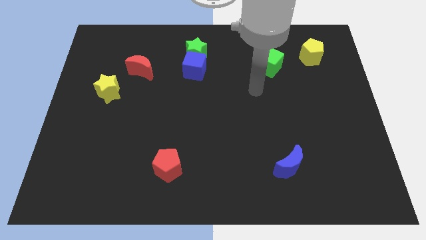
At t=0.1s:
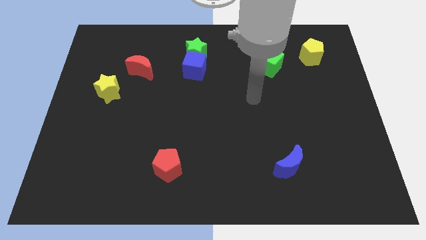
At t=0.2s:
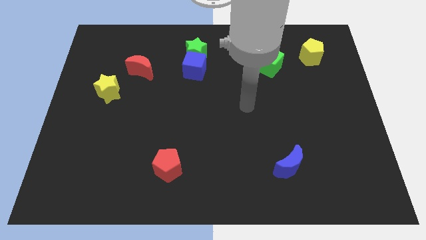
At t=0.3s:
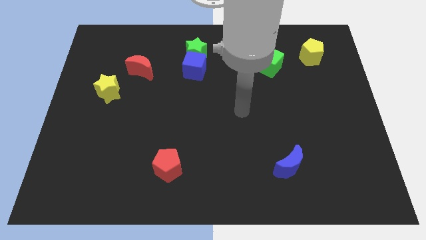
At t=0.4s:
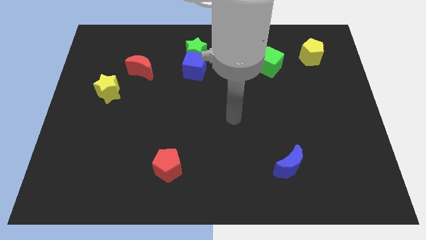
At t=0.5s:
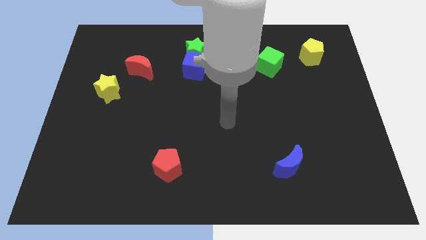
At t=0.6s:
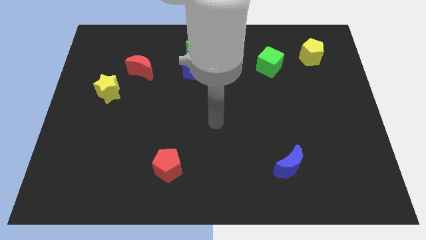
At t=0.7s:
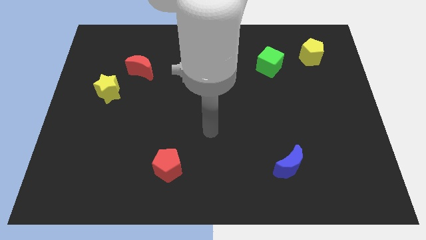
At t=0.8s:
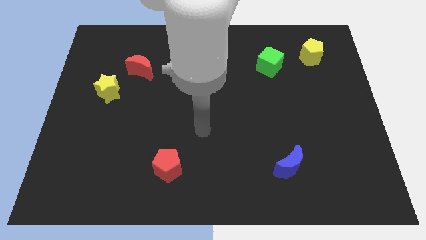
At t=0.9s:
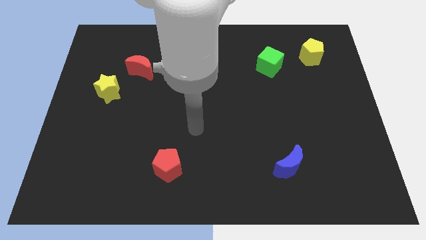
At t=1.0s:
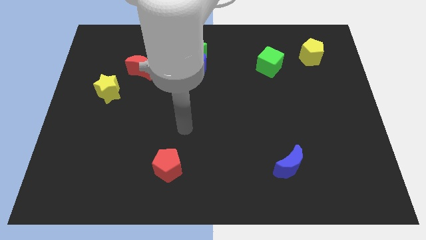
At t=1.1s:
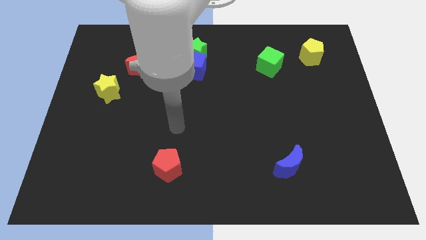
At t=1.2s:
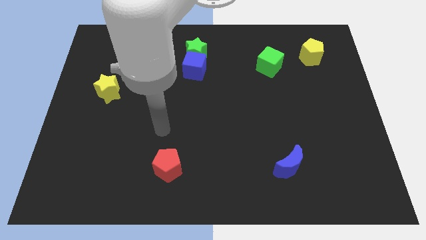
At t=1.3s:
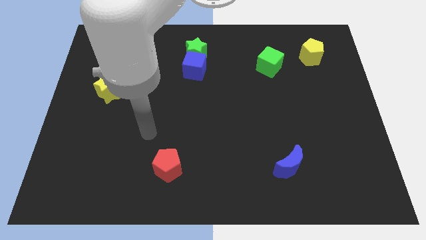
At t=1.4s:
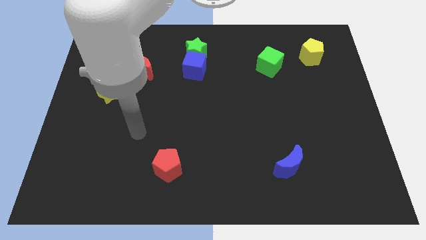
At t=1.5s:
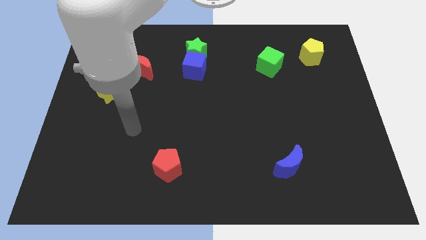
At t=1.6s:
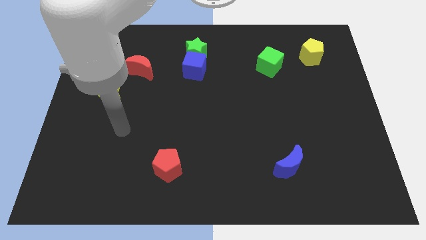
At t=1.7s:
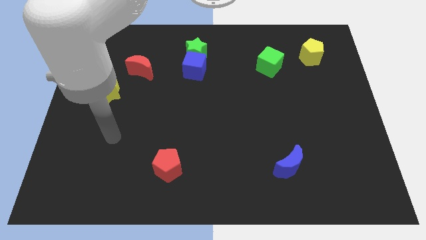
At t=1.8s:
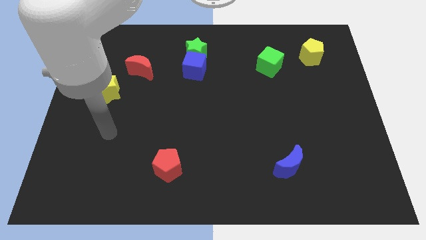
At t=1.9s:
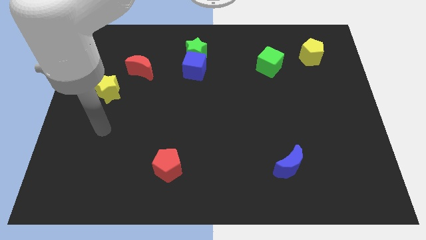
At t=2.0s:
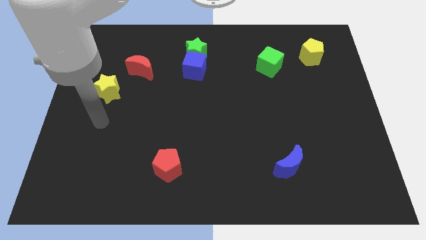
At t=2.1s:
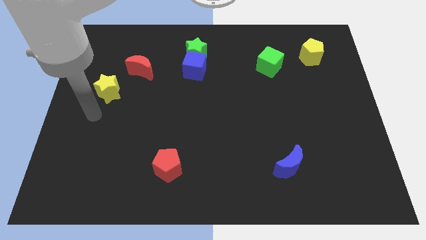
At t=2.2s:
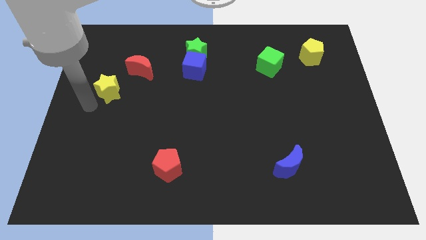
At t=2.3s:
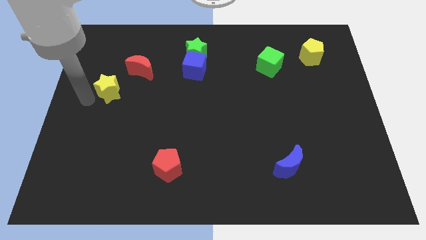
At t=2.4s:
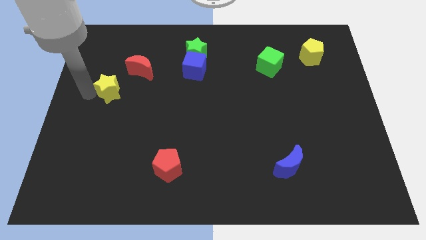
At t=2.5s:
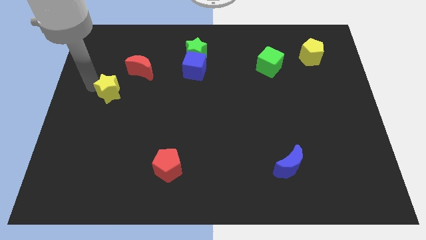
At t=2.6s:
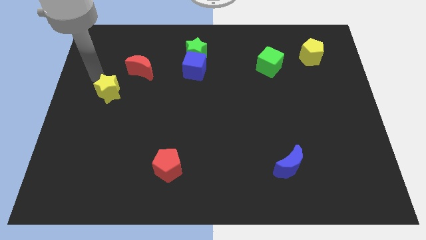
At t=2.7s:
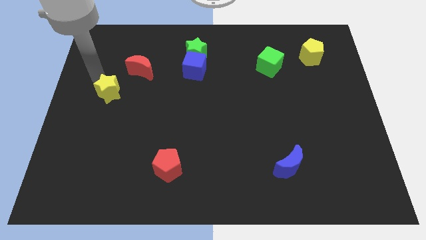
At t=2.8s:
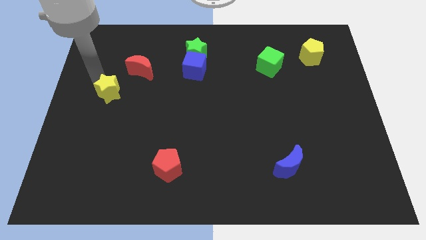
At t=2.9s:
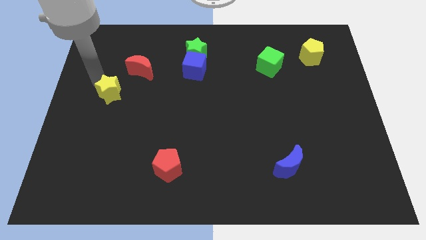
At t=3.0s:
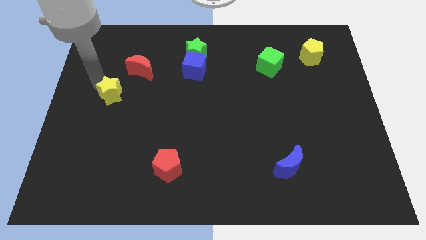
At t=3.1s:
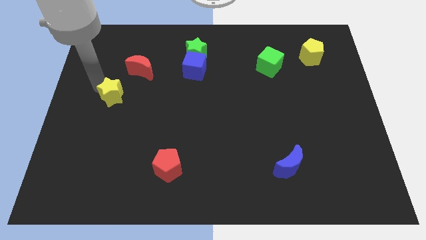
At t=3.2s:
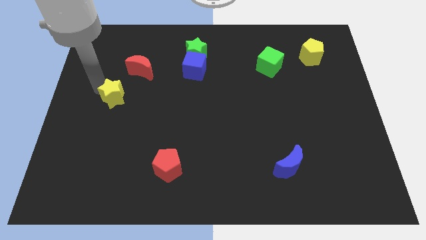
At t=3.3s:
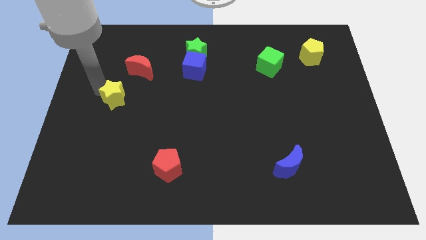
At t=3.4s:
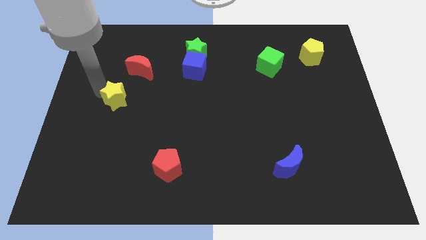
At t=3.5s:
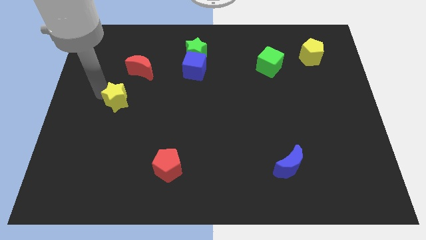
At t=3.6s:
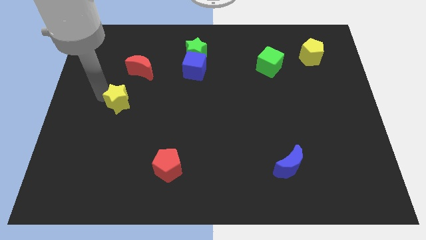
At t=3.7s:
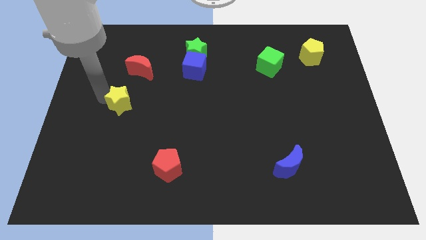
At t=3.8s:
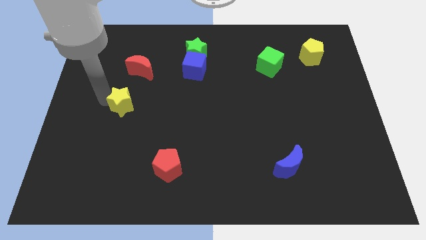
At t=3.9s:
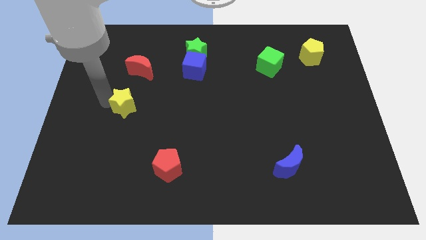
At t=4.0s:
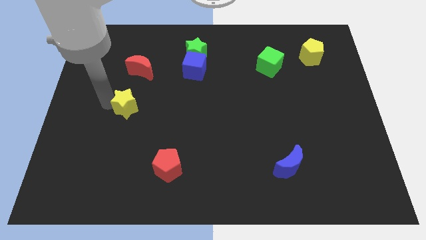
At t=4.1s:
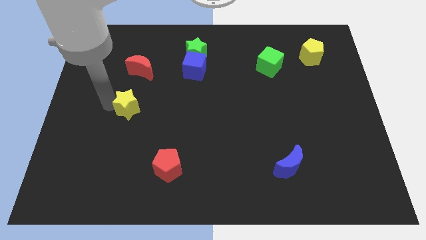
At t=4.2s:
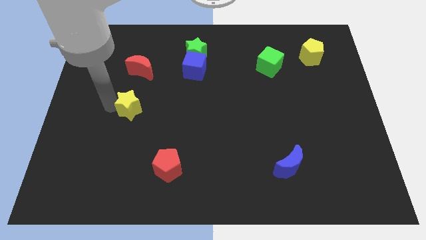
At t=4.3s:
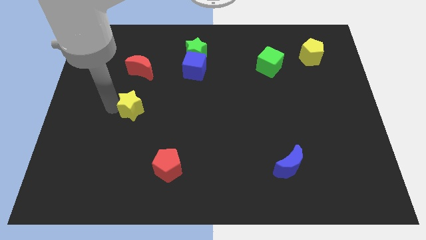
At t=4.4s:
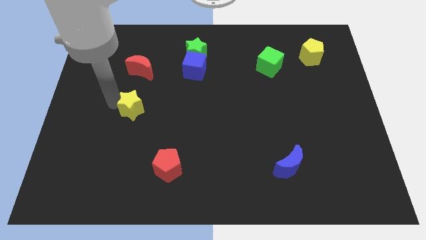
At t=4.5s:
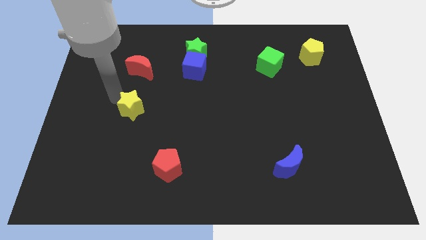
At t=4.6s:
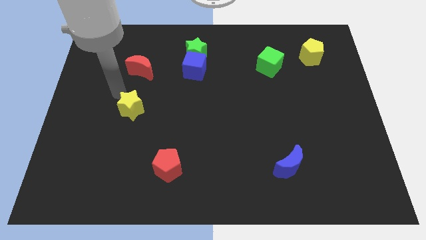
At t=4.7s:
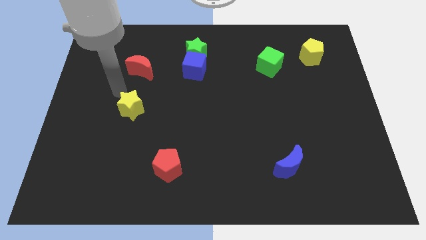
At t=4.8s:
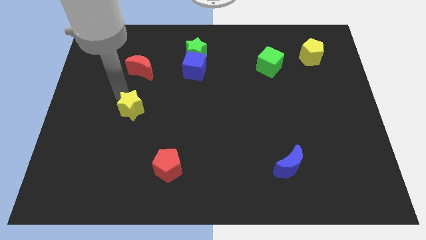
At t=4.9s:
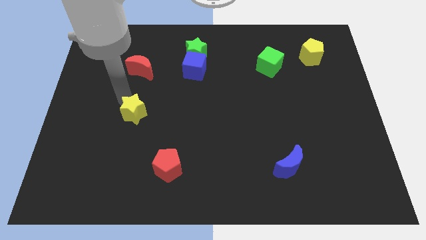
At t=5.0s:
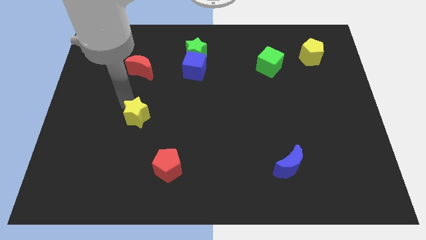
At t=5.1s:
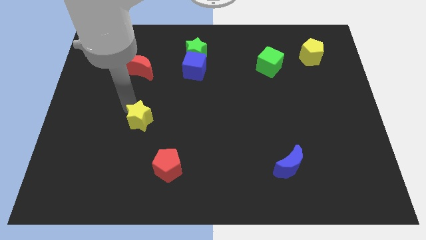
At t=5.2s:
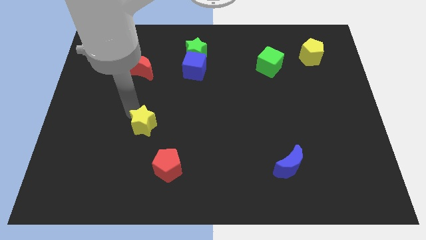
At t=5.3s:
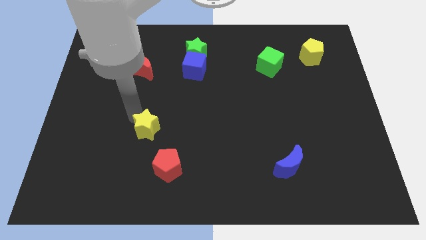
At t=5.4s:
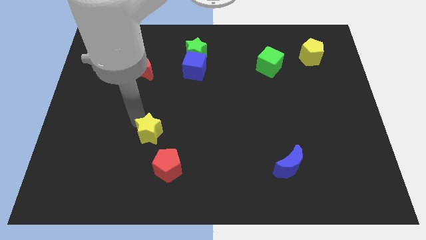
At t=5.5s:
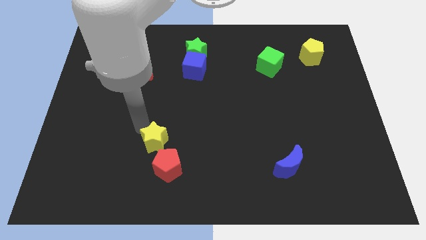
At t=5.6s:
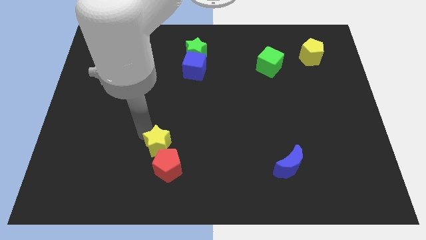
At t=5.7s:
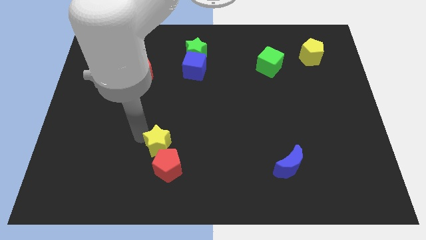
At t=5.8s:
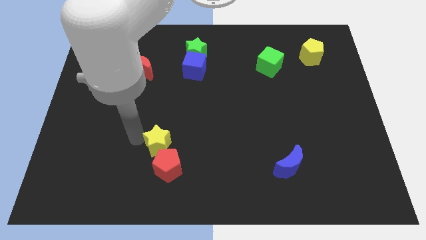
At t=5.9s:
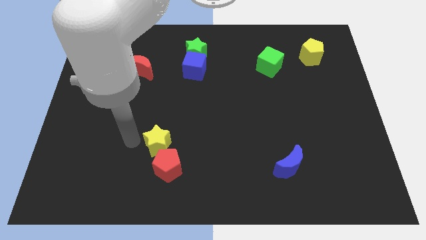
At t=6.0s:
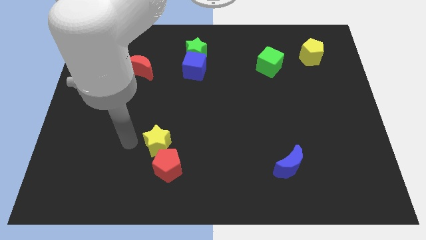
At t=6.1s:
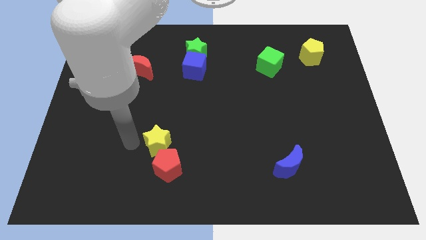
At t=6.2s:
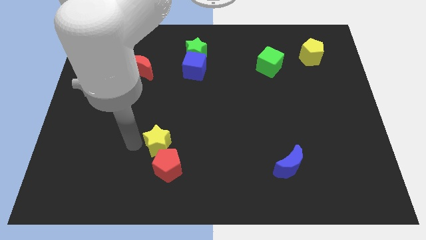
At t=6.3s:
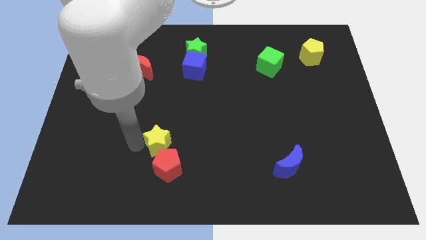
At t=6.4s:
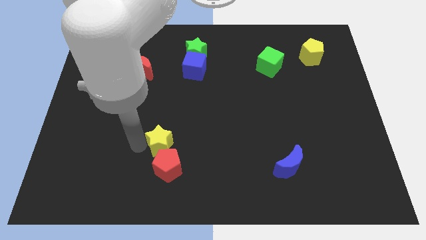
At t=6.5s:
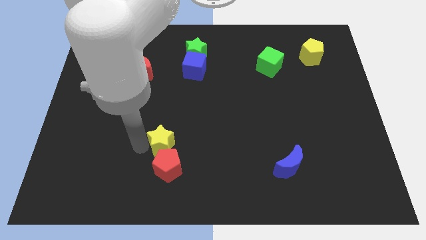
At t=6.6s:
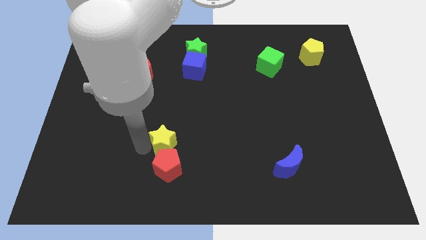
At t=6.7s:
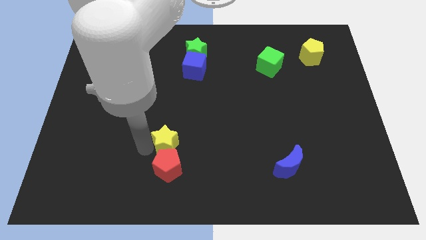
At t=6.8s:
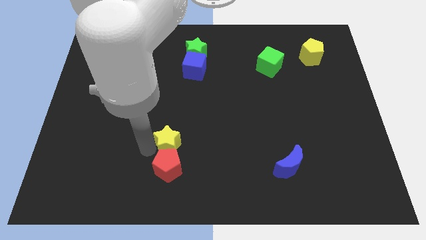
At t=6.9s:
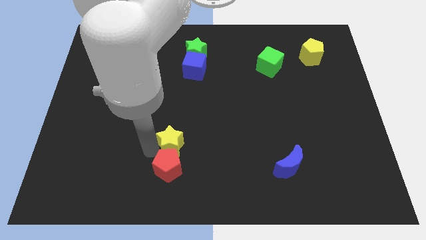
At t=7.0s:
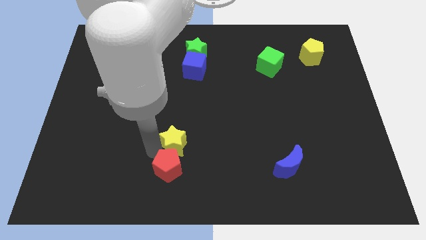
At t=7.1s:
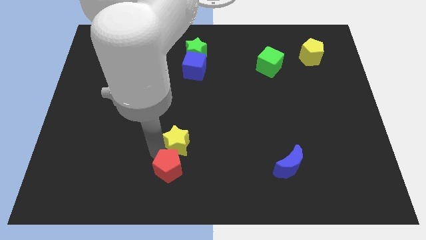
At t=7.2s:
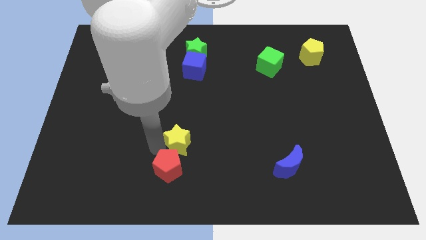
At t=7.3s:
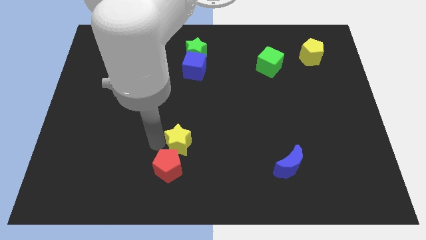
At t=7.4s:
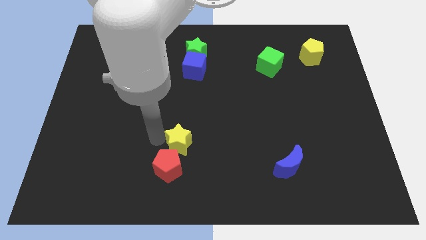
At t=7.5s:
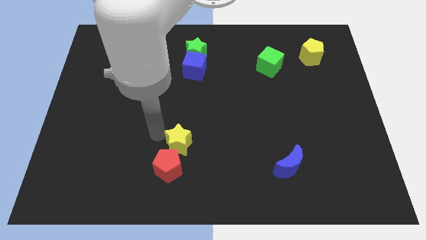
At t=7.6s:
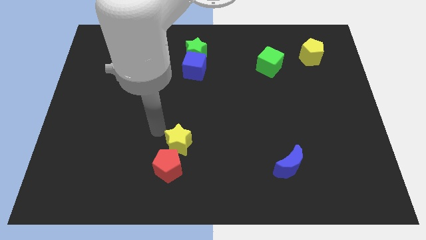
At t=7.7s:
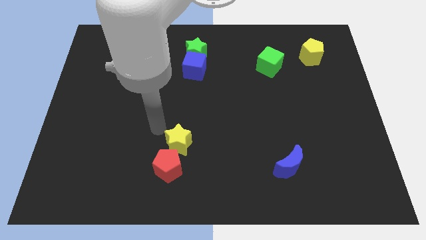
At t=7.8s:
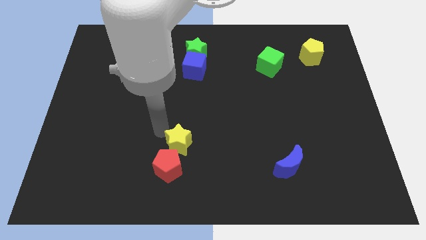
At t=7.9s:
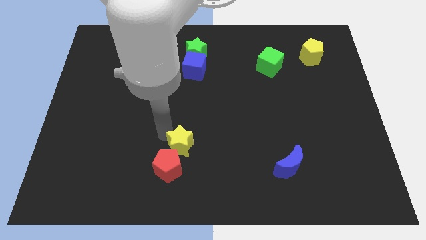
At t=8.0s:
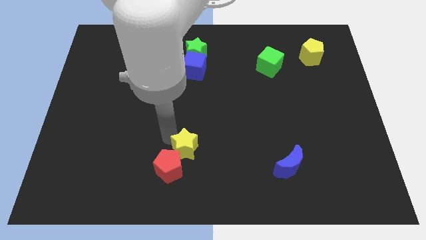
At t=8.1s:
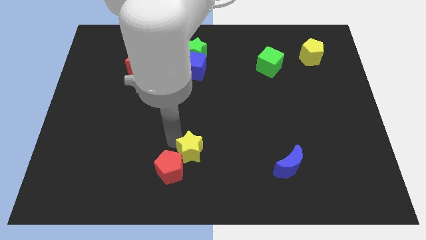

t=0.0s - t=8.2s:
move the yellow star to the right of the red pentagon
